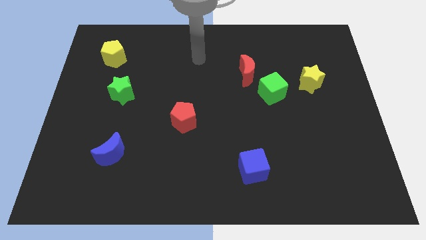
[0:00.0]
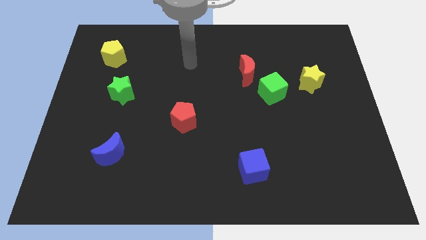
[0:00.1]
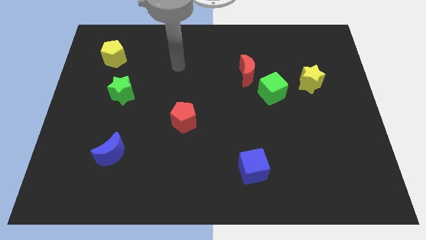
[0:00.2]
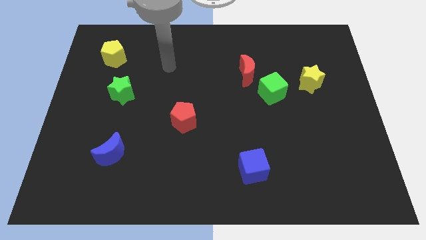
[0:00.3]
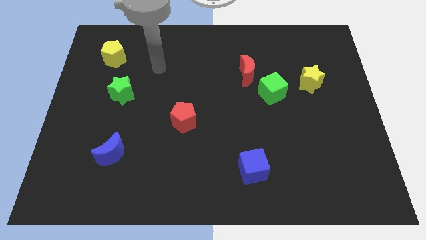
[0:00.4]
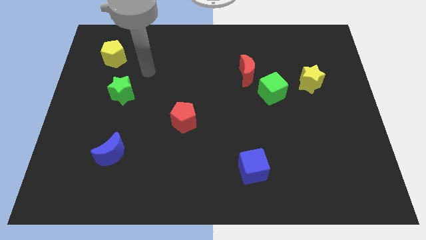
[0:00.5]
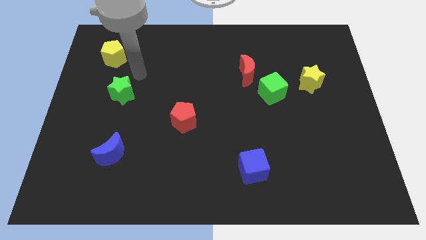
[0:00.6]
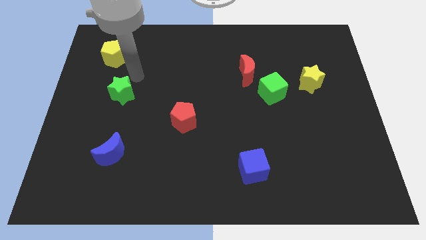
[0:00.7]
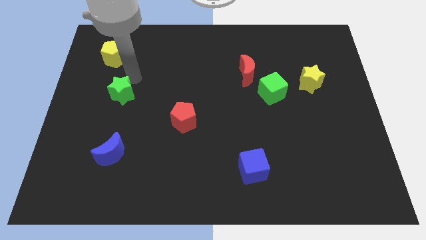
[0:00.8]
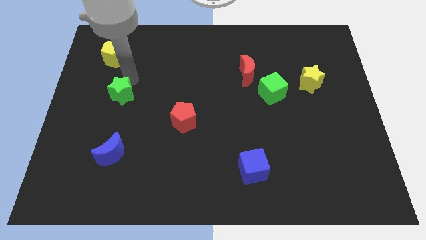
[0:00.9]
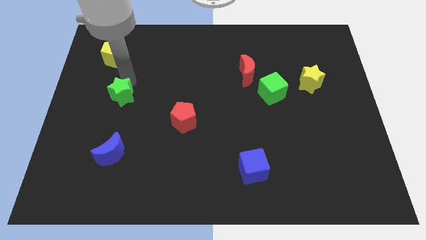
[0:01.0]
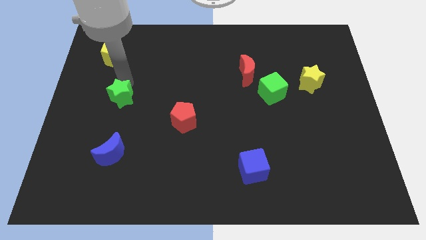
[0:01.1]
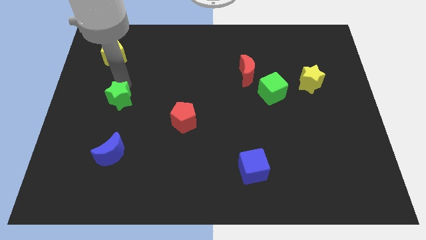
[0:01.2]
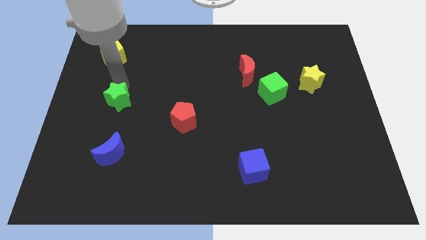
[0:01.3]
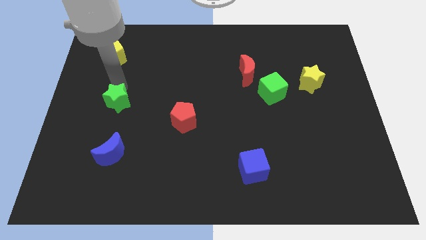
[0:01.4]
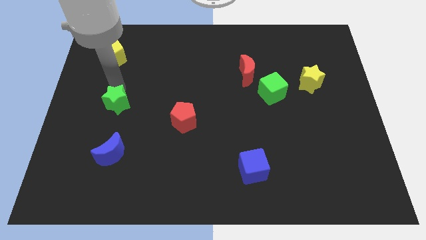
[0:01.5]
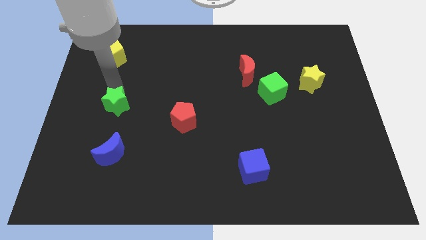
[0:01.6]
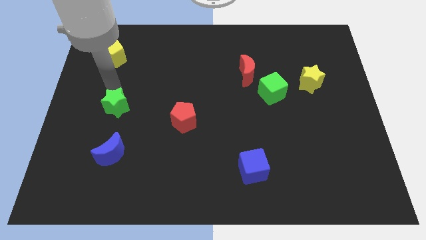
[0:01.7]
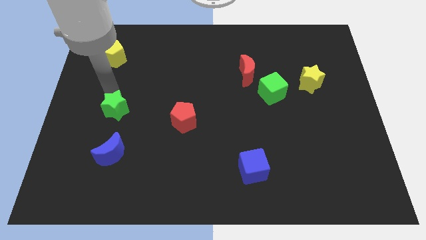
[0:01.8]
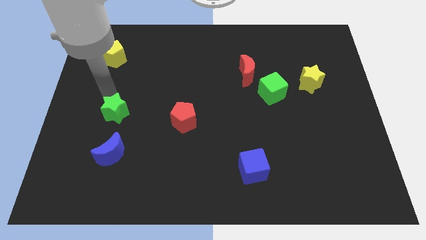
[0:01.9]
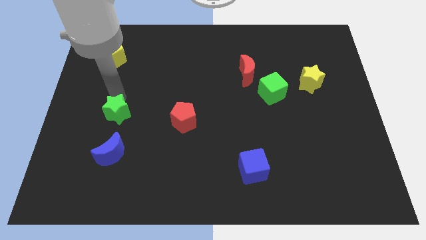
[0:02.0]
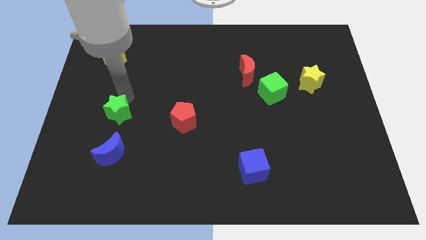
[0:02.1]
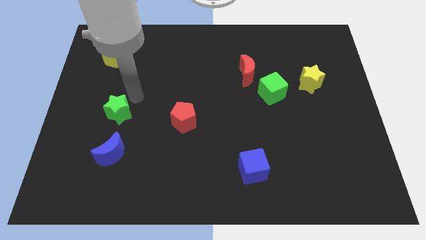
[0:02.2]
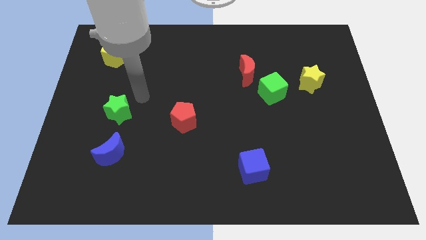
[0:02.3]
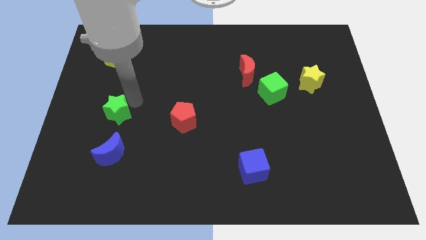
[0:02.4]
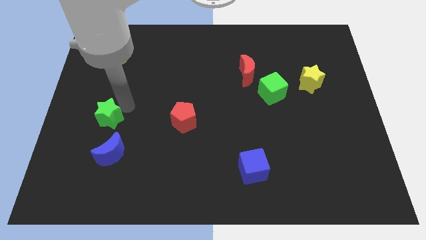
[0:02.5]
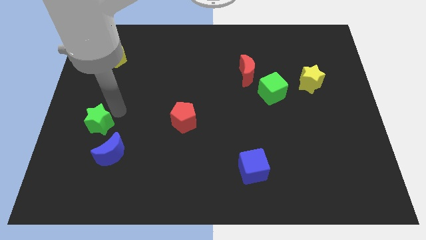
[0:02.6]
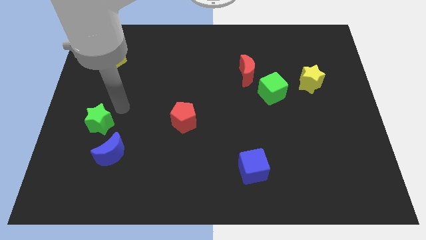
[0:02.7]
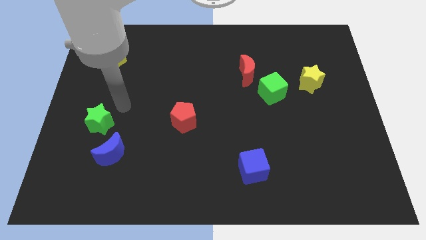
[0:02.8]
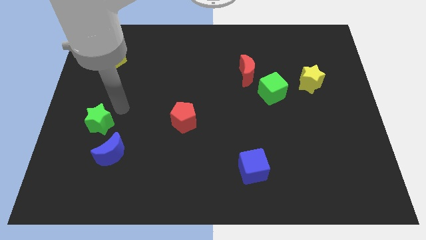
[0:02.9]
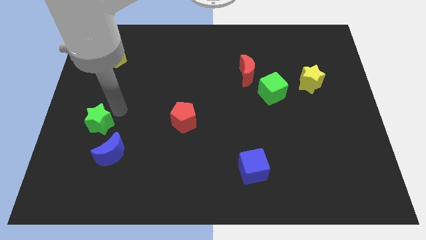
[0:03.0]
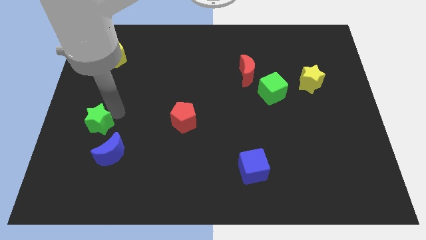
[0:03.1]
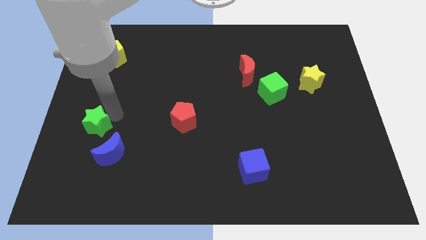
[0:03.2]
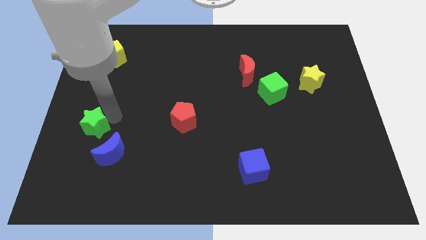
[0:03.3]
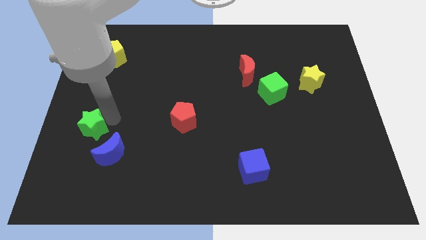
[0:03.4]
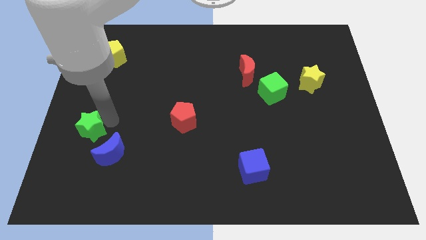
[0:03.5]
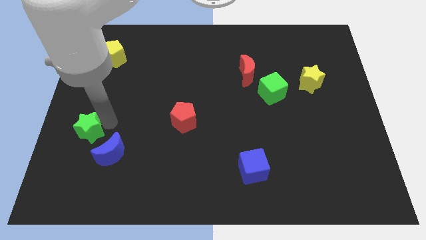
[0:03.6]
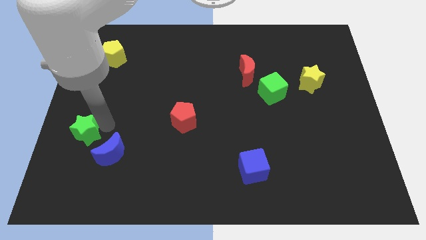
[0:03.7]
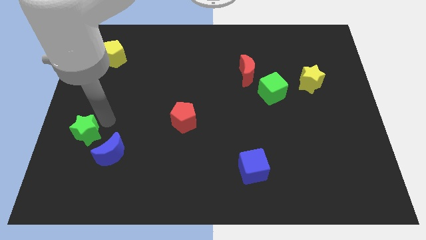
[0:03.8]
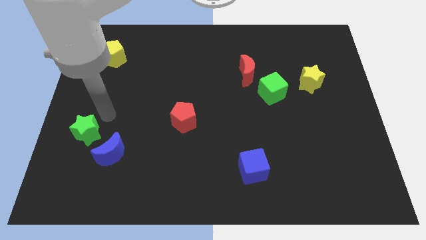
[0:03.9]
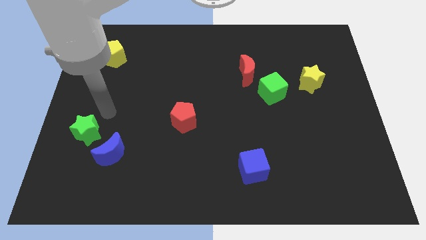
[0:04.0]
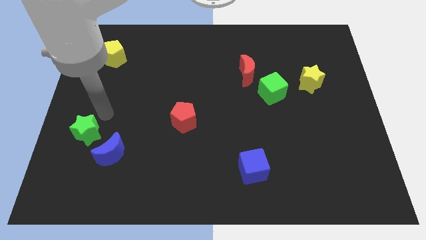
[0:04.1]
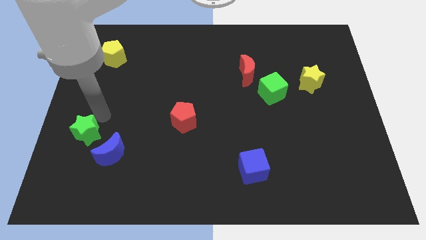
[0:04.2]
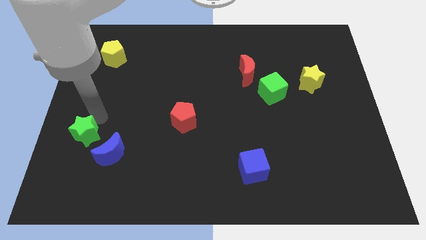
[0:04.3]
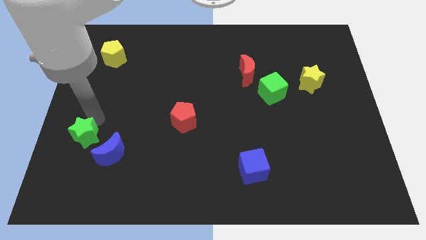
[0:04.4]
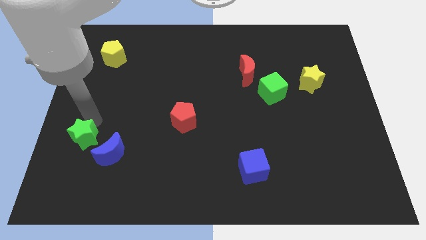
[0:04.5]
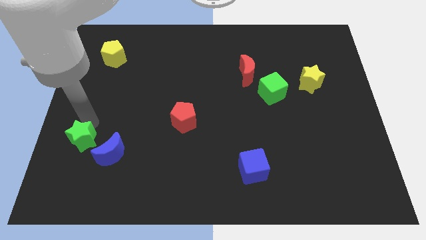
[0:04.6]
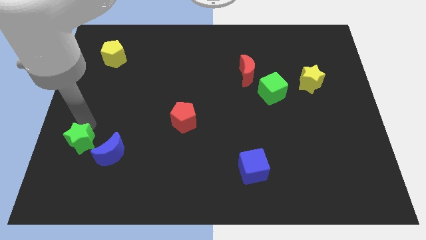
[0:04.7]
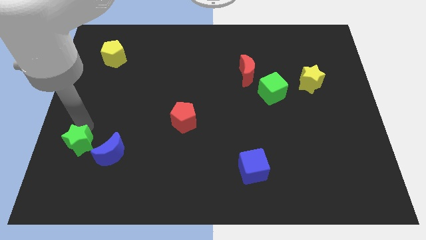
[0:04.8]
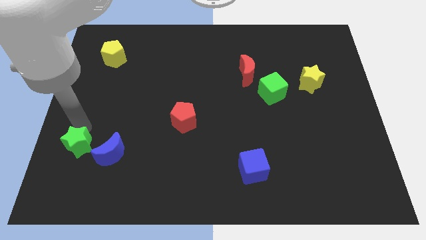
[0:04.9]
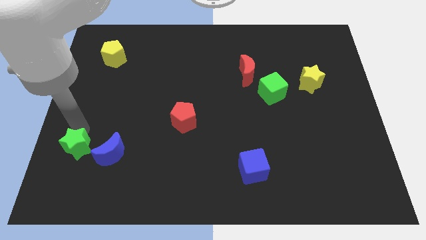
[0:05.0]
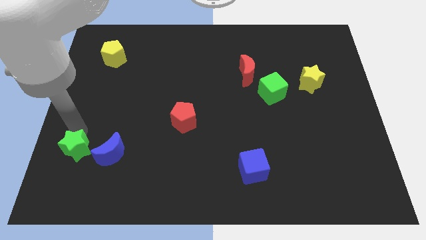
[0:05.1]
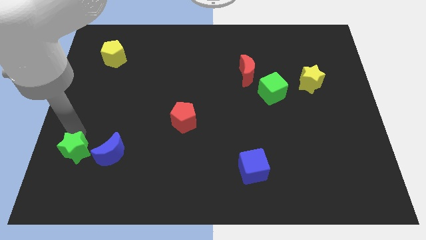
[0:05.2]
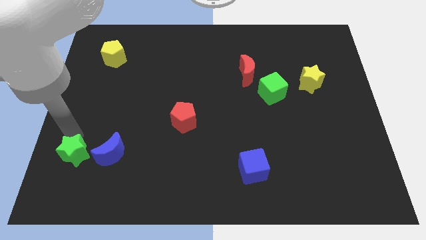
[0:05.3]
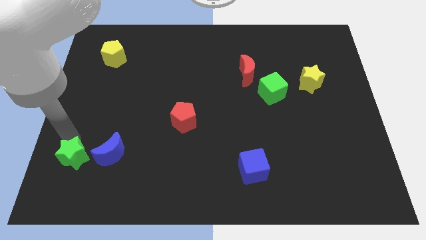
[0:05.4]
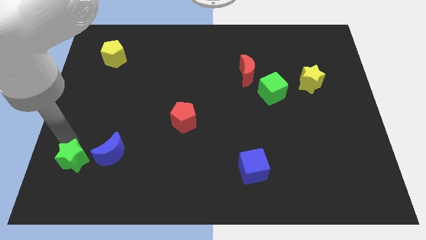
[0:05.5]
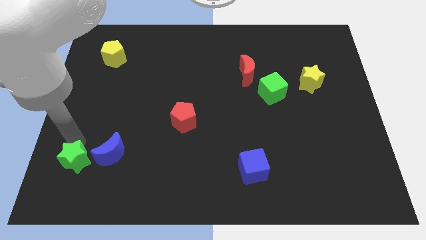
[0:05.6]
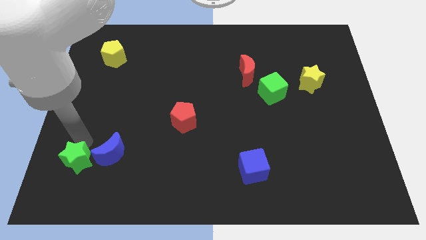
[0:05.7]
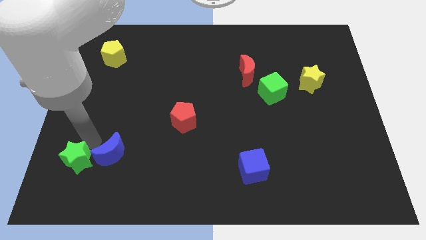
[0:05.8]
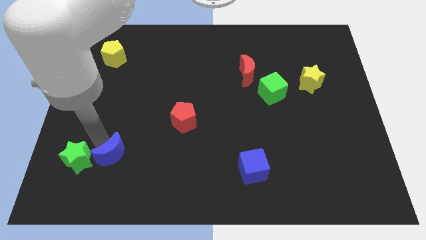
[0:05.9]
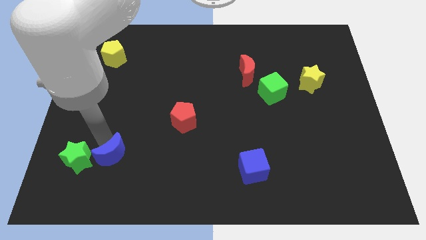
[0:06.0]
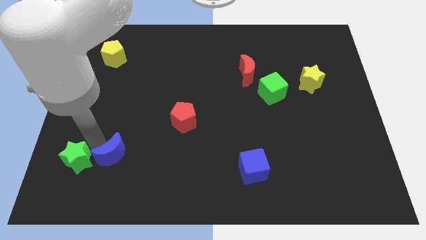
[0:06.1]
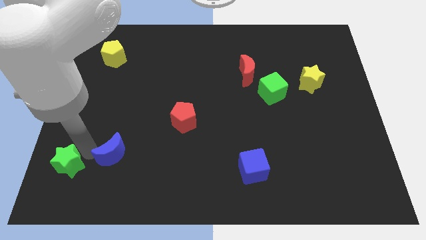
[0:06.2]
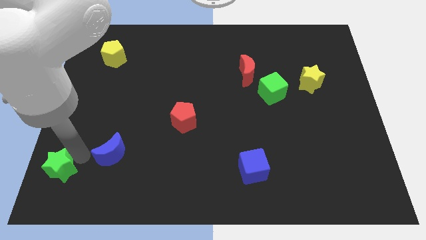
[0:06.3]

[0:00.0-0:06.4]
push the green star to the bottom left corner
